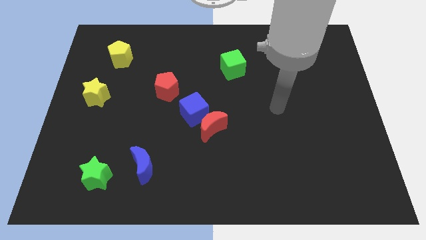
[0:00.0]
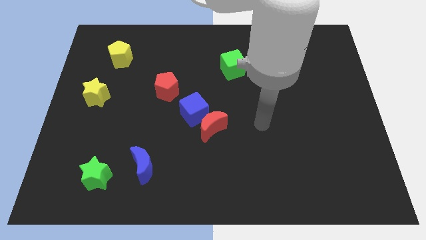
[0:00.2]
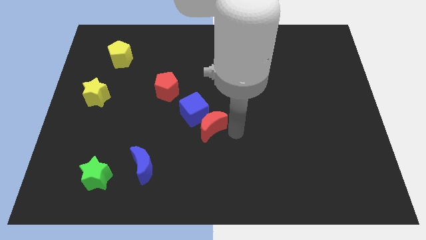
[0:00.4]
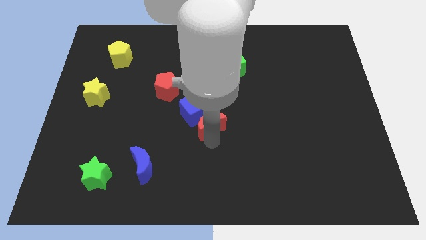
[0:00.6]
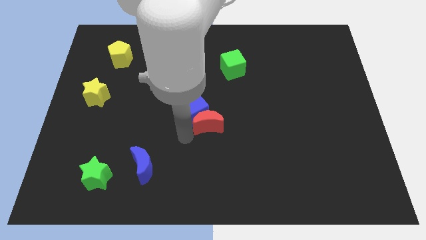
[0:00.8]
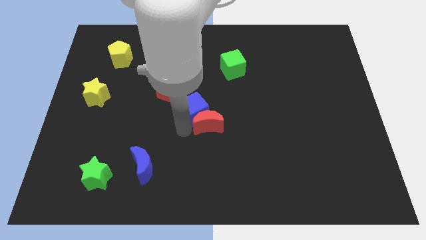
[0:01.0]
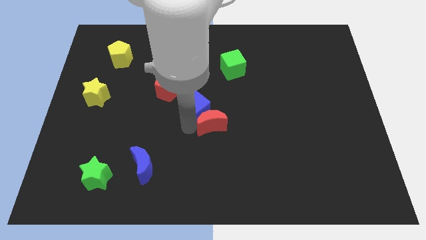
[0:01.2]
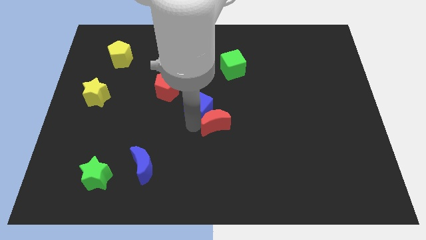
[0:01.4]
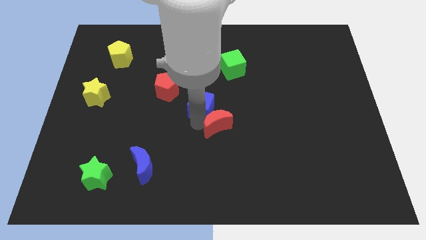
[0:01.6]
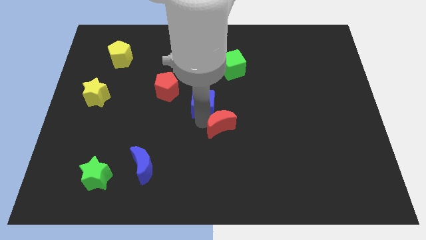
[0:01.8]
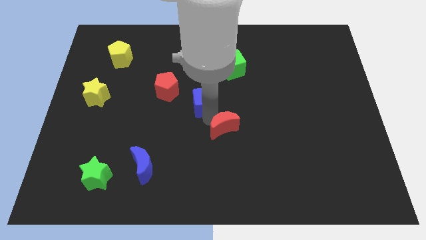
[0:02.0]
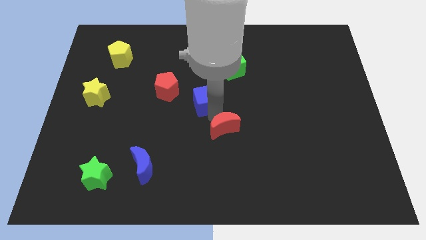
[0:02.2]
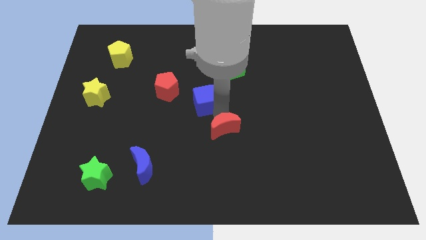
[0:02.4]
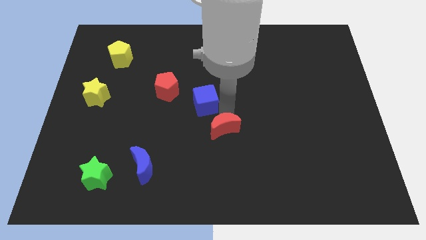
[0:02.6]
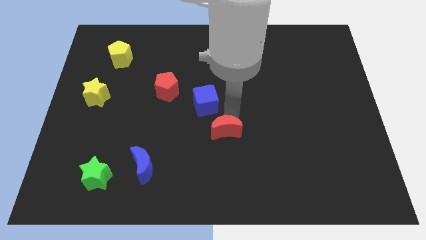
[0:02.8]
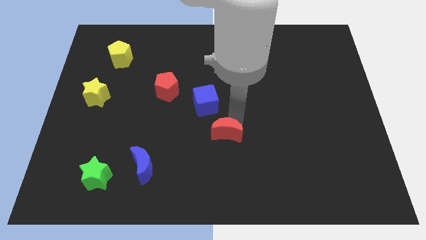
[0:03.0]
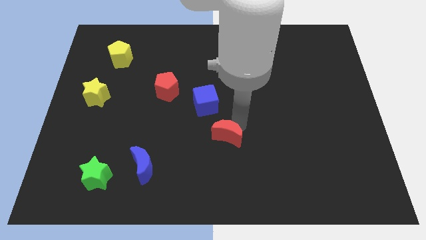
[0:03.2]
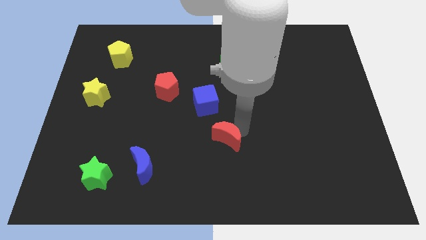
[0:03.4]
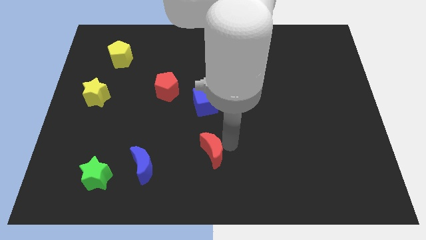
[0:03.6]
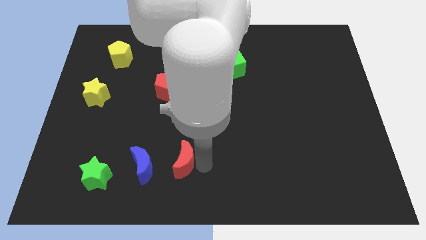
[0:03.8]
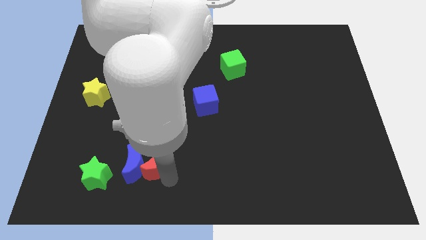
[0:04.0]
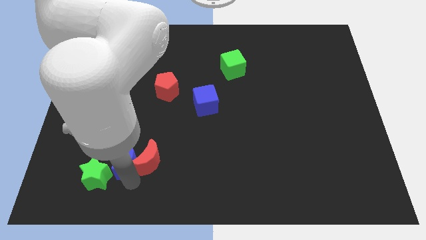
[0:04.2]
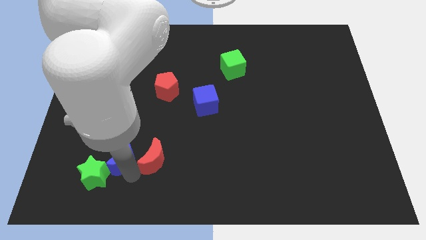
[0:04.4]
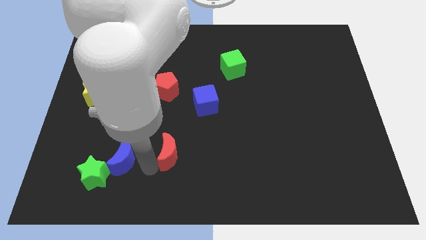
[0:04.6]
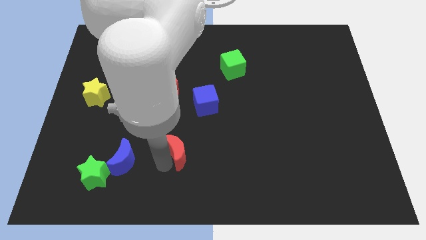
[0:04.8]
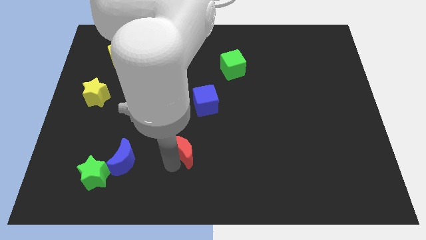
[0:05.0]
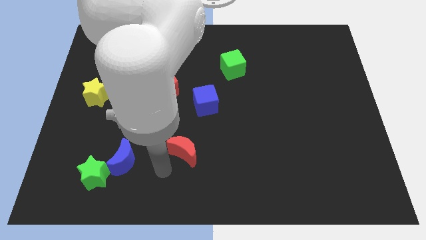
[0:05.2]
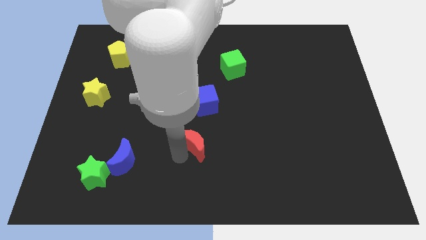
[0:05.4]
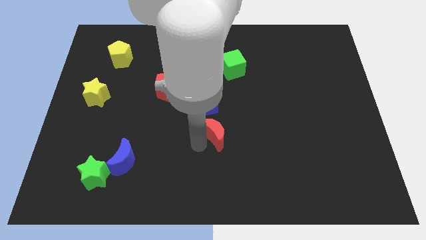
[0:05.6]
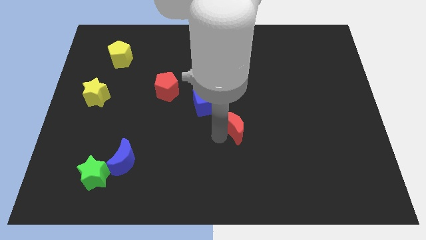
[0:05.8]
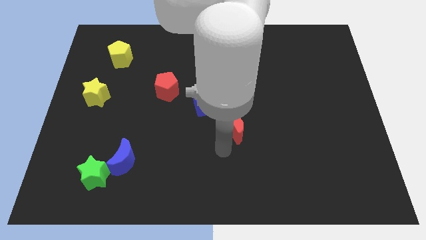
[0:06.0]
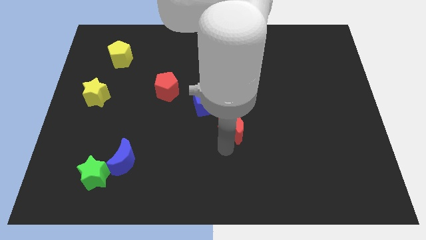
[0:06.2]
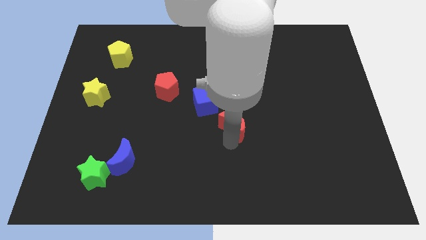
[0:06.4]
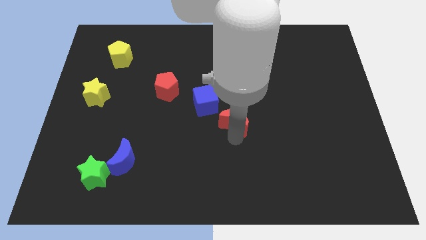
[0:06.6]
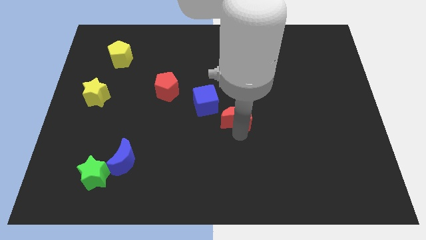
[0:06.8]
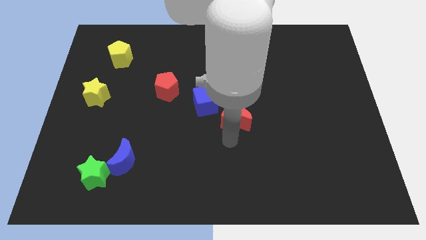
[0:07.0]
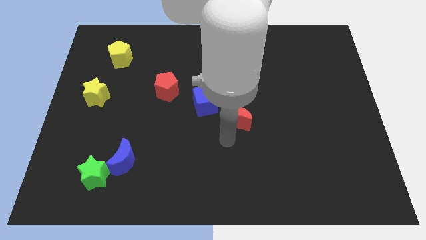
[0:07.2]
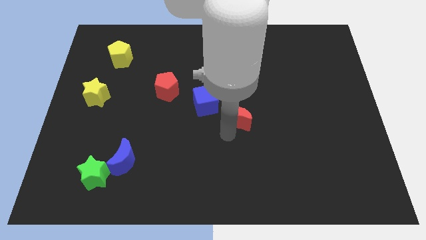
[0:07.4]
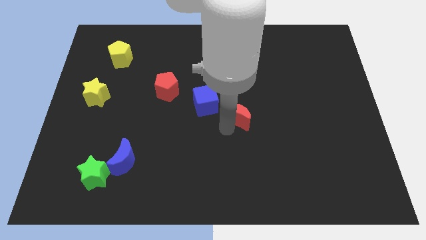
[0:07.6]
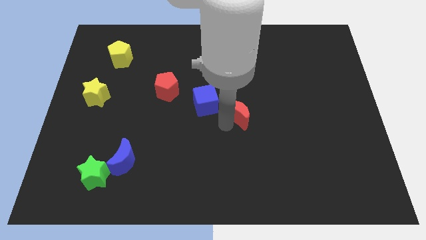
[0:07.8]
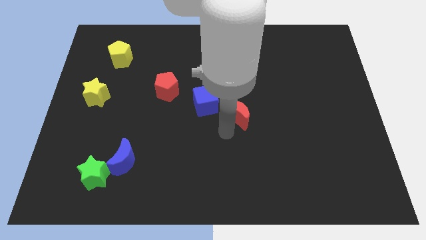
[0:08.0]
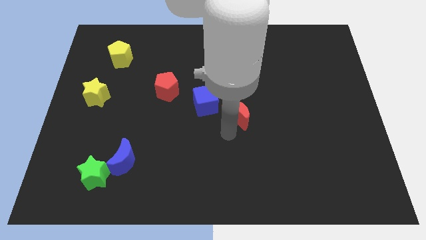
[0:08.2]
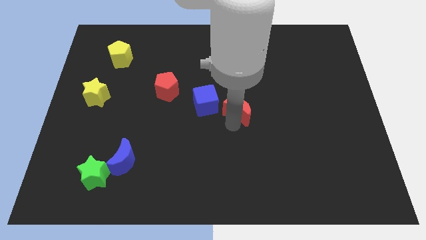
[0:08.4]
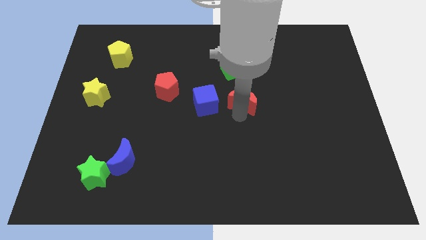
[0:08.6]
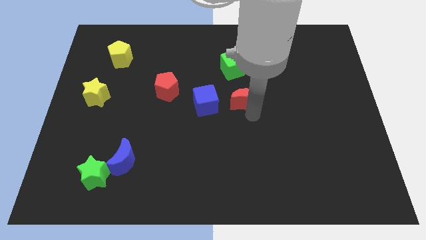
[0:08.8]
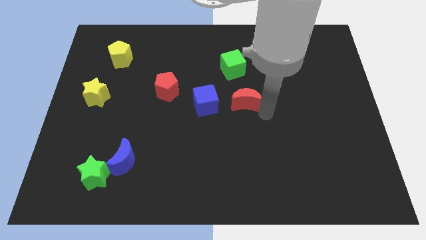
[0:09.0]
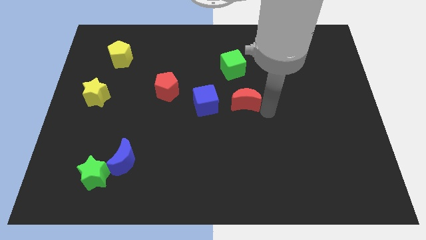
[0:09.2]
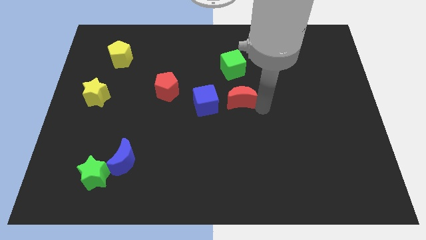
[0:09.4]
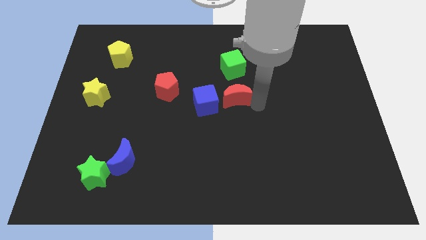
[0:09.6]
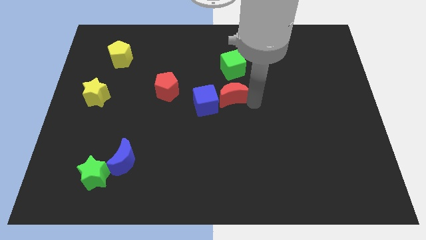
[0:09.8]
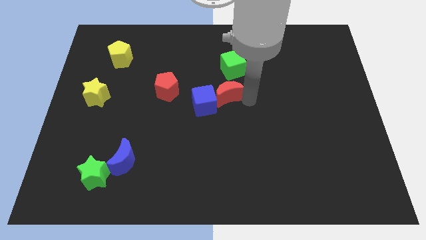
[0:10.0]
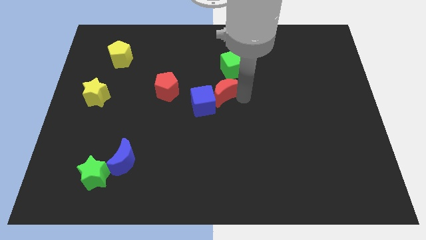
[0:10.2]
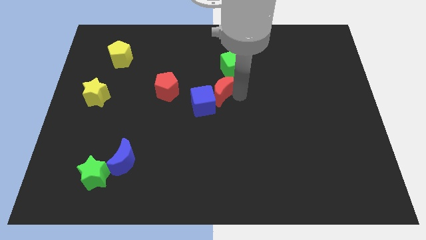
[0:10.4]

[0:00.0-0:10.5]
put the red moon above the blue cube

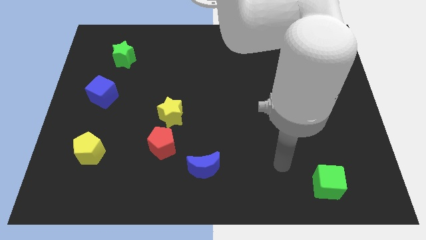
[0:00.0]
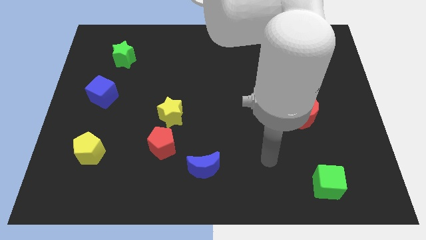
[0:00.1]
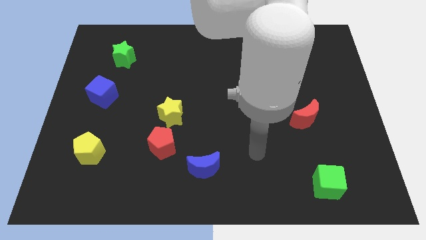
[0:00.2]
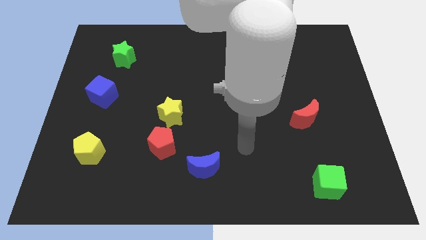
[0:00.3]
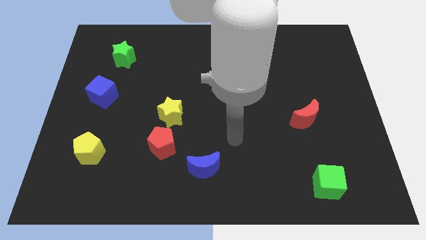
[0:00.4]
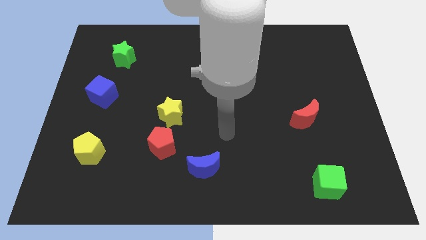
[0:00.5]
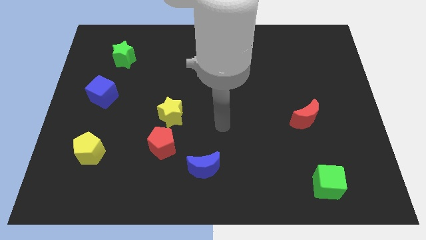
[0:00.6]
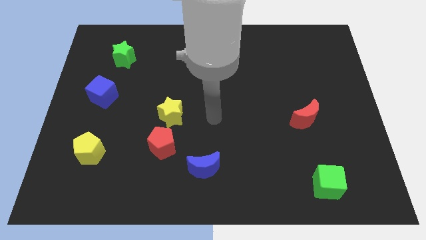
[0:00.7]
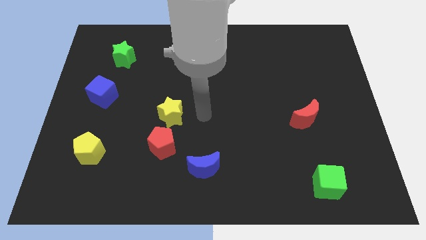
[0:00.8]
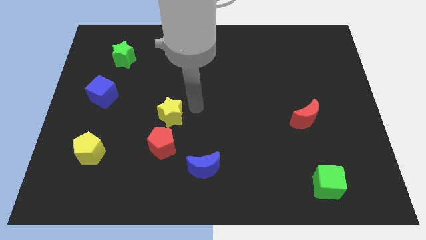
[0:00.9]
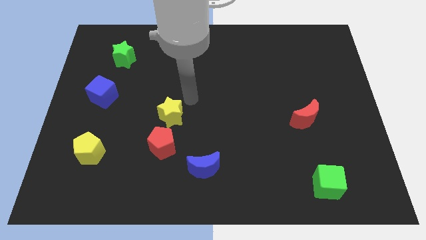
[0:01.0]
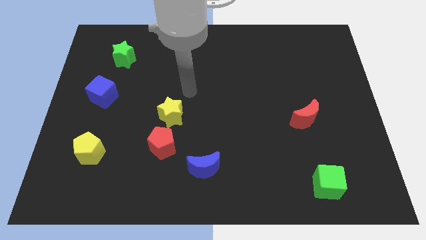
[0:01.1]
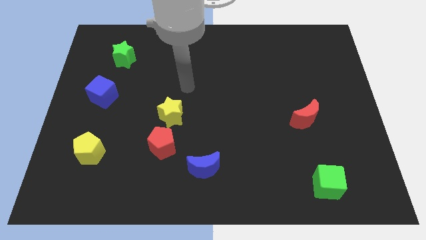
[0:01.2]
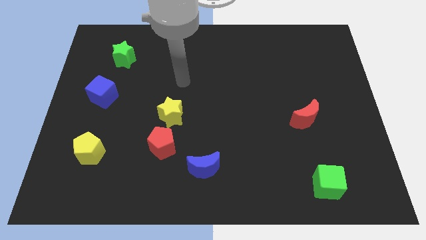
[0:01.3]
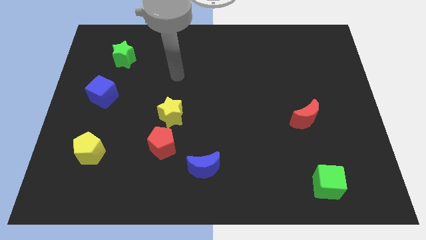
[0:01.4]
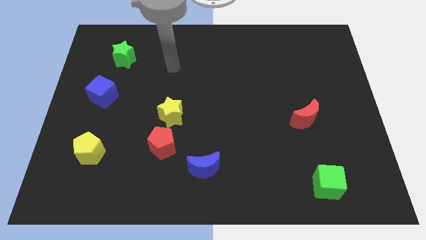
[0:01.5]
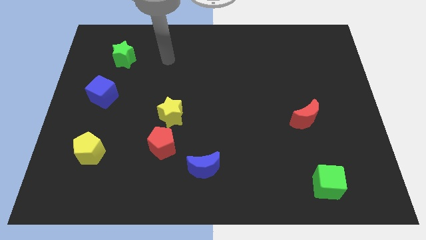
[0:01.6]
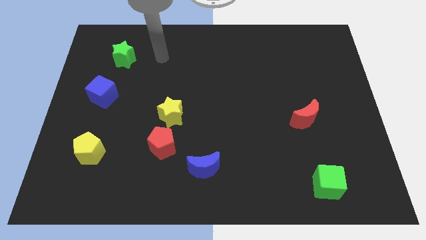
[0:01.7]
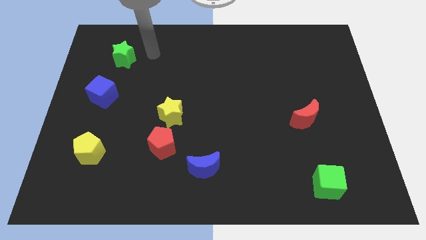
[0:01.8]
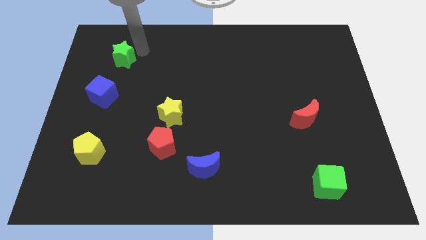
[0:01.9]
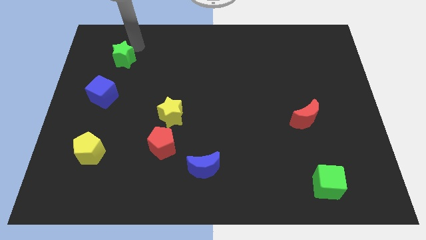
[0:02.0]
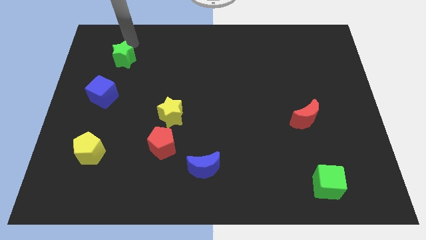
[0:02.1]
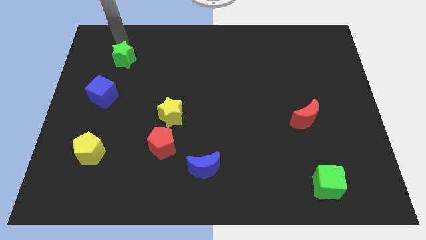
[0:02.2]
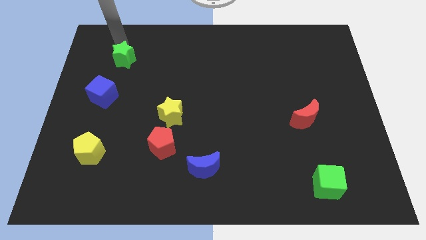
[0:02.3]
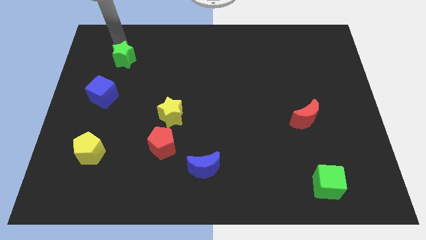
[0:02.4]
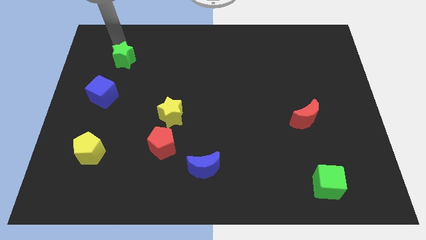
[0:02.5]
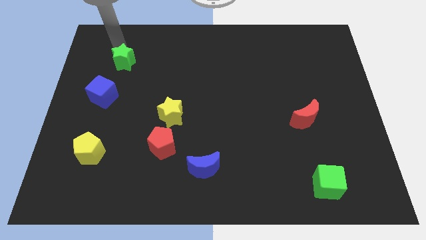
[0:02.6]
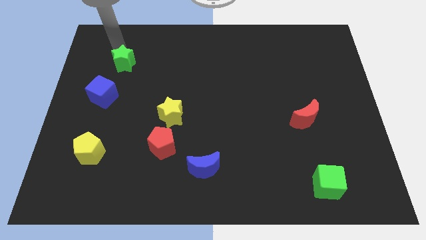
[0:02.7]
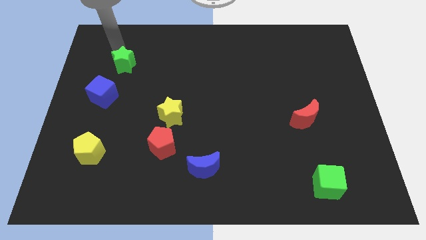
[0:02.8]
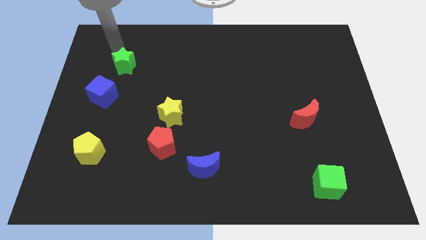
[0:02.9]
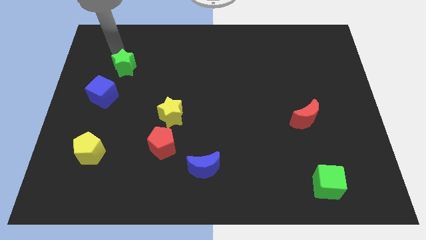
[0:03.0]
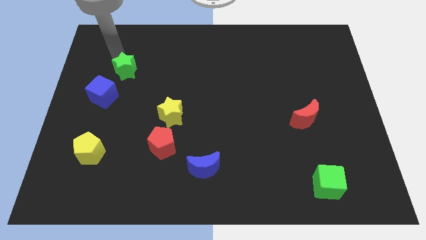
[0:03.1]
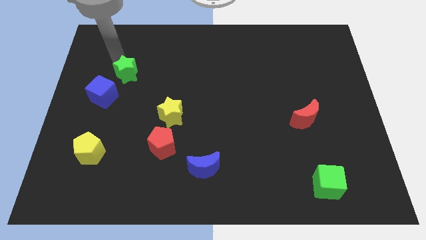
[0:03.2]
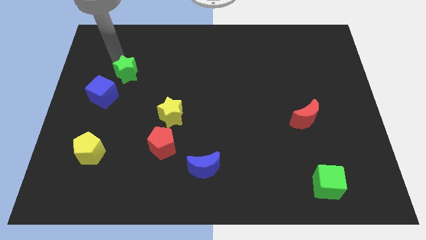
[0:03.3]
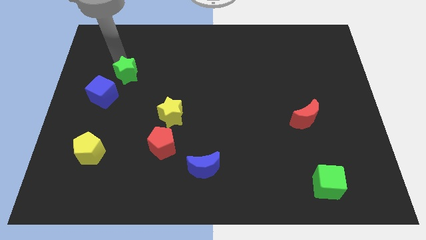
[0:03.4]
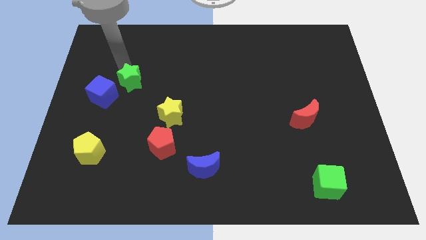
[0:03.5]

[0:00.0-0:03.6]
put the green star to the right of the blue cube
